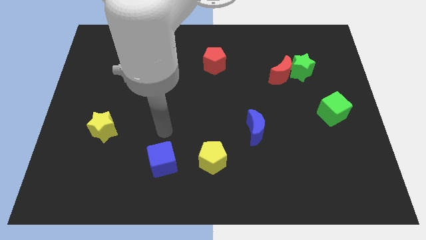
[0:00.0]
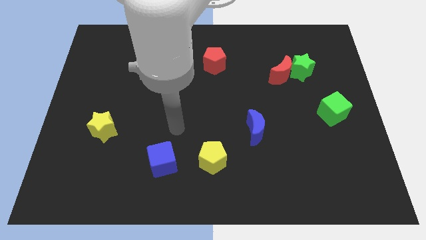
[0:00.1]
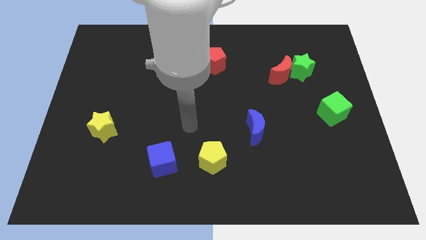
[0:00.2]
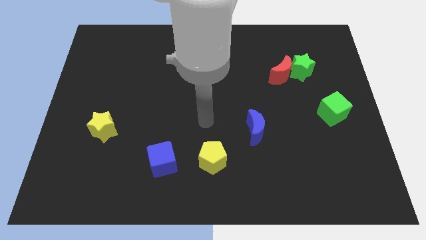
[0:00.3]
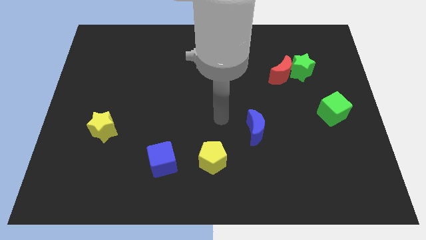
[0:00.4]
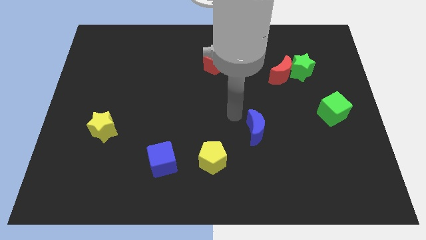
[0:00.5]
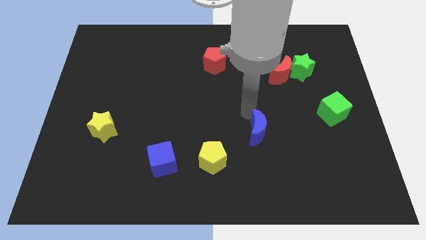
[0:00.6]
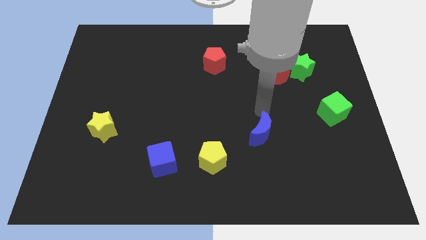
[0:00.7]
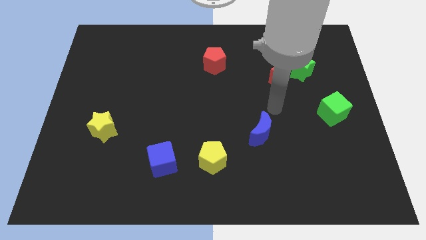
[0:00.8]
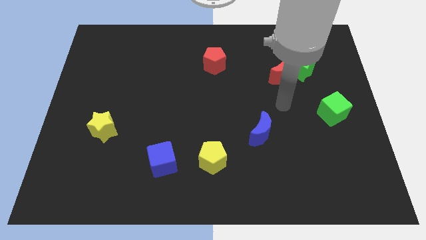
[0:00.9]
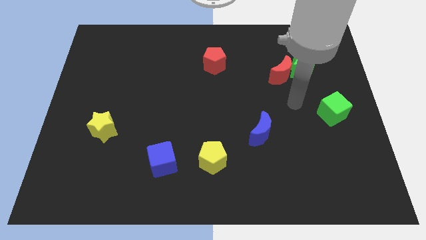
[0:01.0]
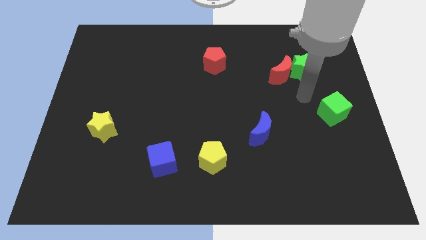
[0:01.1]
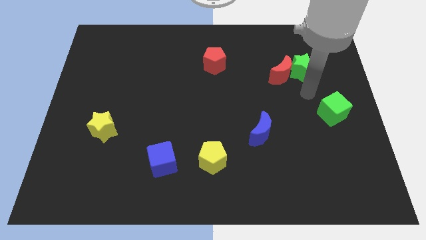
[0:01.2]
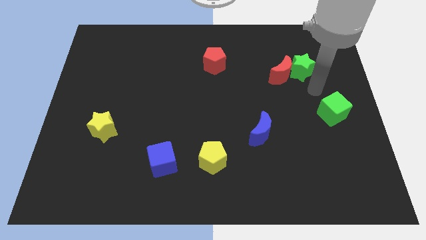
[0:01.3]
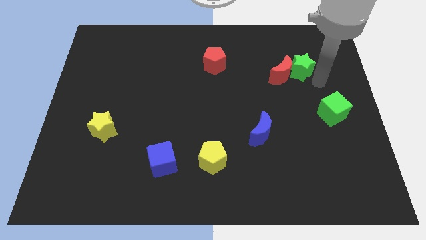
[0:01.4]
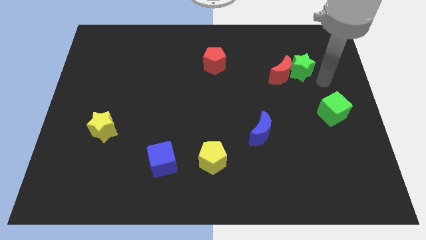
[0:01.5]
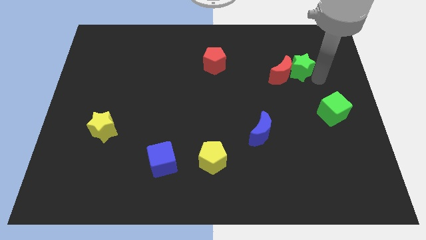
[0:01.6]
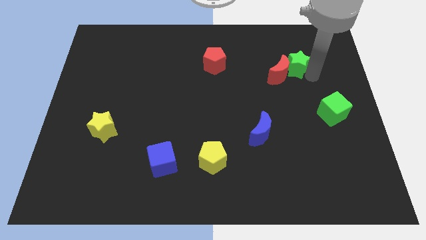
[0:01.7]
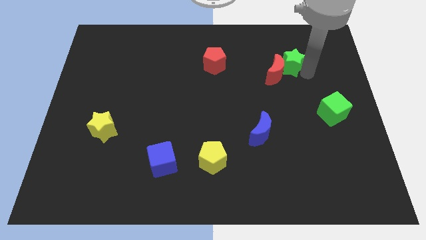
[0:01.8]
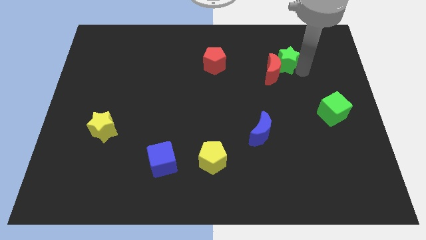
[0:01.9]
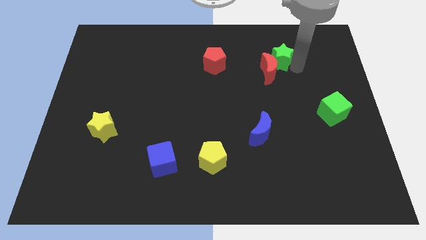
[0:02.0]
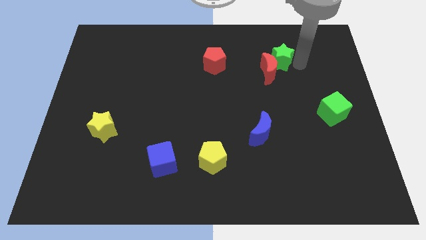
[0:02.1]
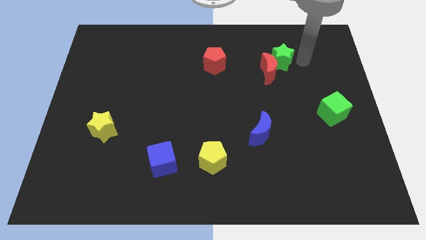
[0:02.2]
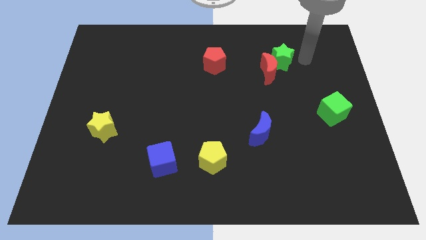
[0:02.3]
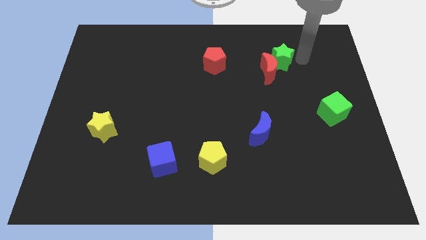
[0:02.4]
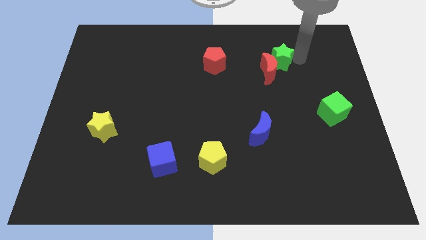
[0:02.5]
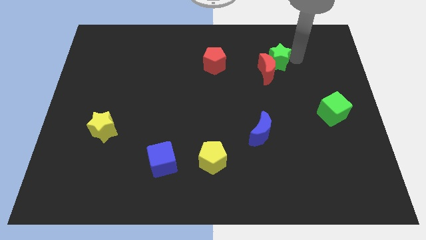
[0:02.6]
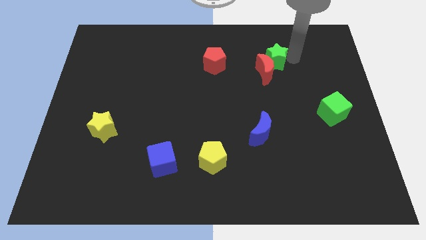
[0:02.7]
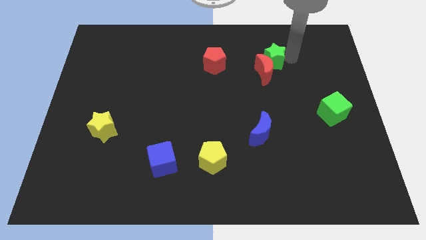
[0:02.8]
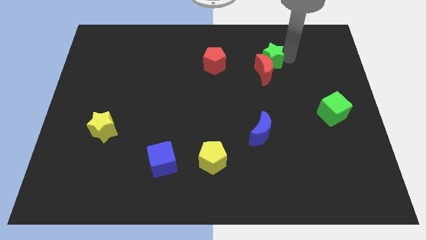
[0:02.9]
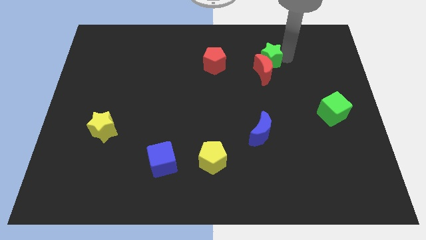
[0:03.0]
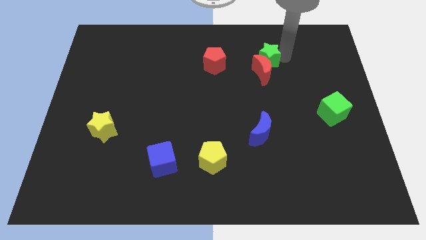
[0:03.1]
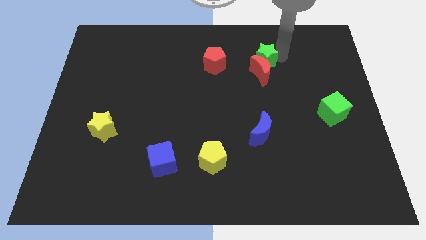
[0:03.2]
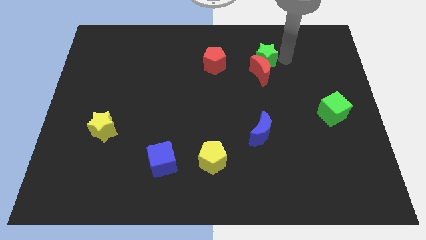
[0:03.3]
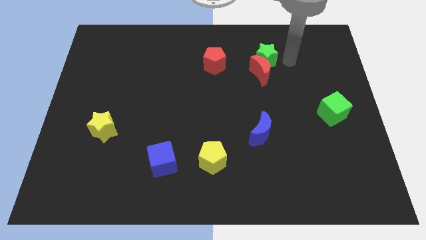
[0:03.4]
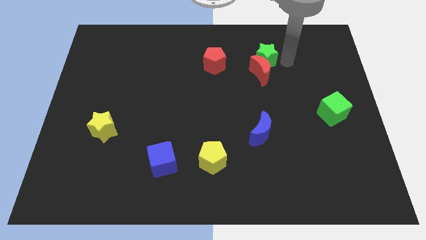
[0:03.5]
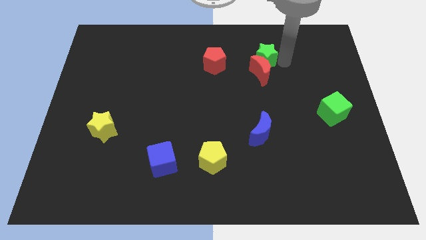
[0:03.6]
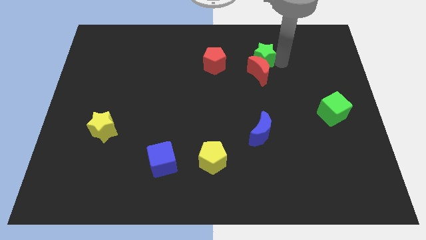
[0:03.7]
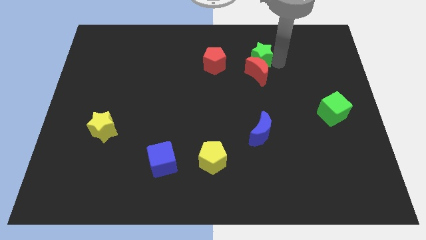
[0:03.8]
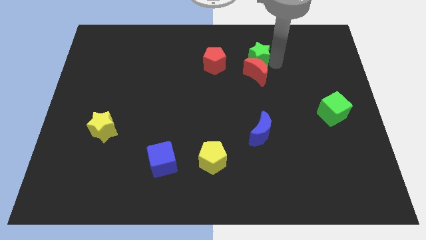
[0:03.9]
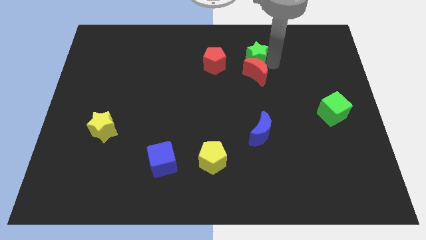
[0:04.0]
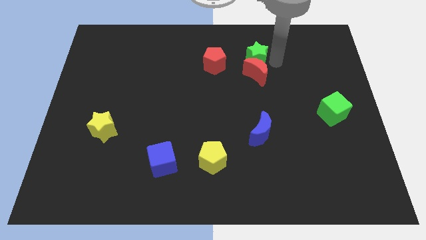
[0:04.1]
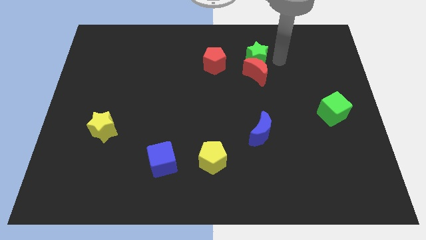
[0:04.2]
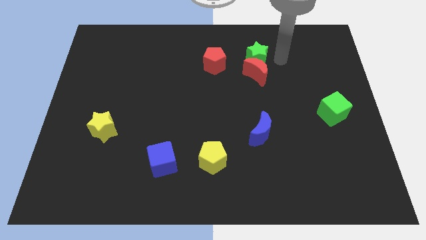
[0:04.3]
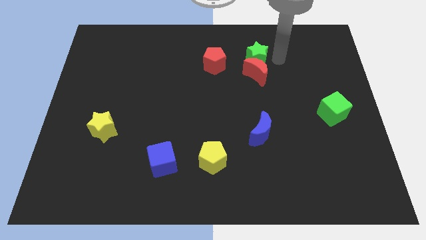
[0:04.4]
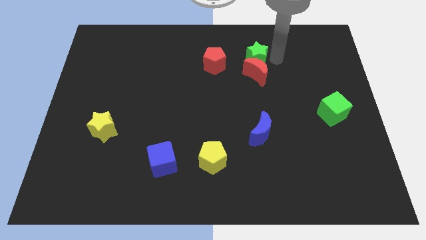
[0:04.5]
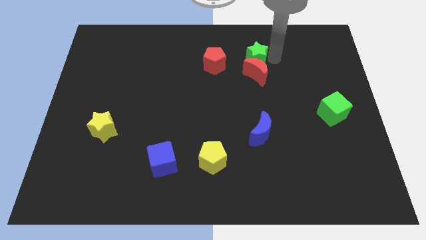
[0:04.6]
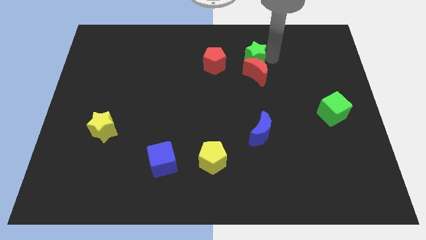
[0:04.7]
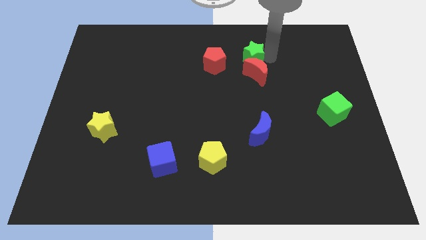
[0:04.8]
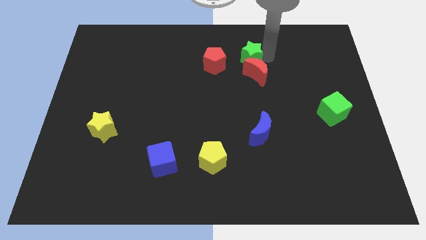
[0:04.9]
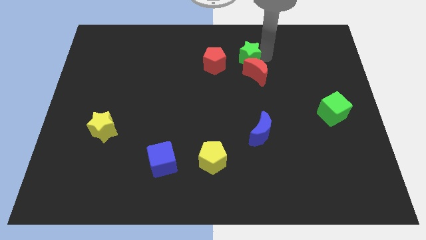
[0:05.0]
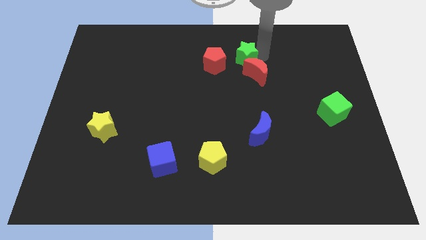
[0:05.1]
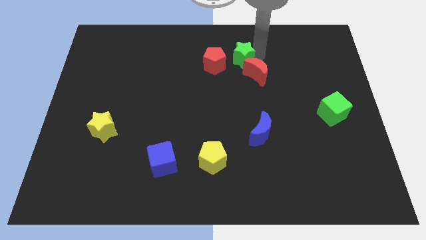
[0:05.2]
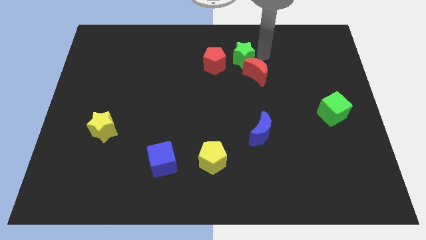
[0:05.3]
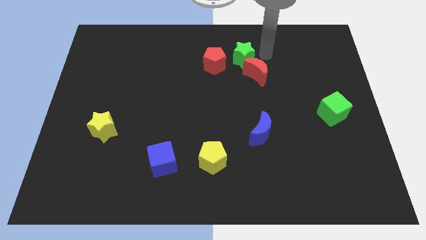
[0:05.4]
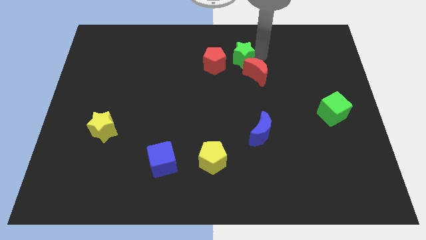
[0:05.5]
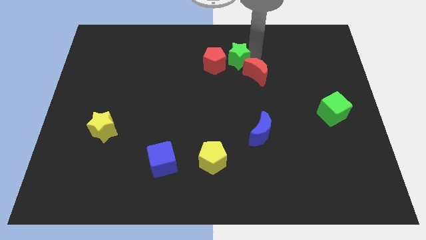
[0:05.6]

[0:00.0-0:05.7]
move the green star close to the red pentagon

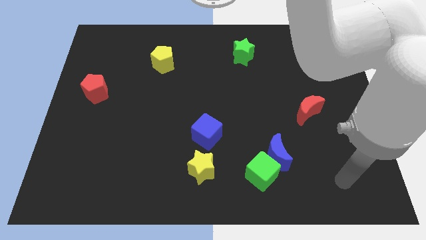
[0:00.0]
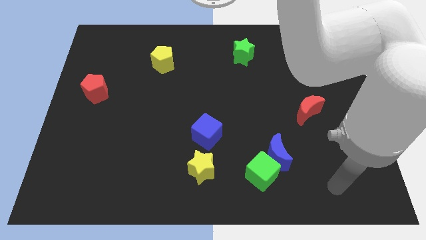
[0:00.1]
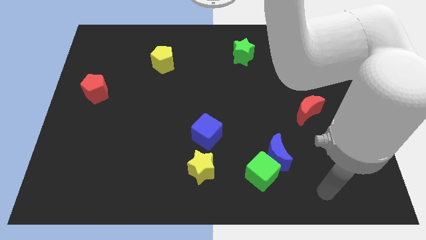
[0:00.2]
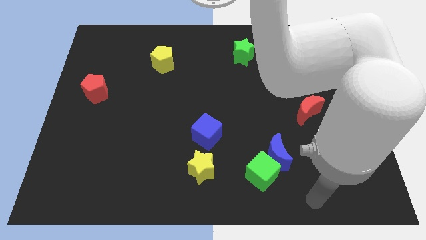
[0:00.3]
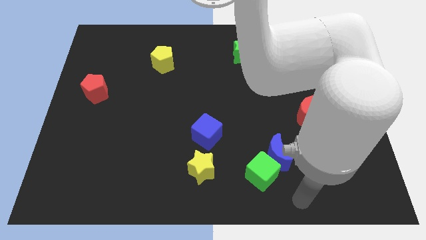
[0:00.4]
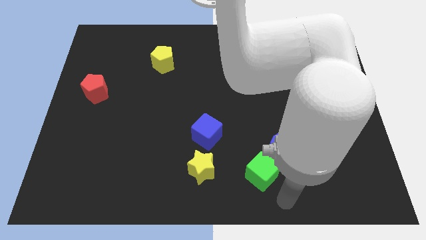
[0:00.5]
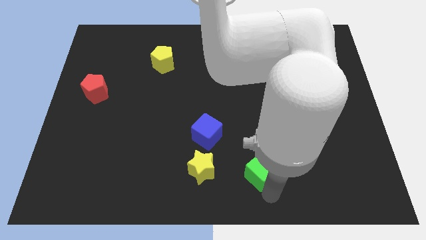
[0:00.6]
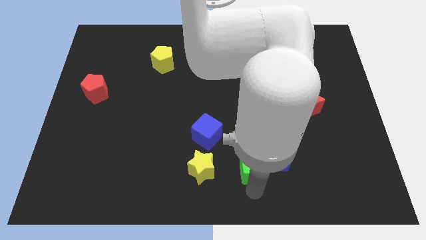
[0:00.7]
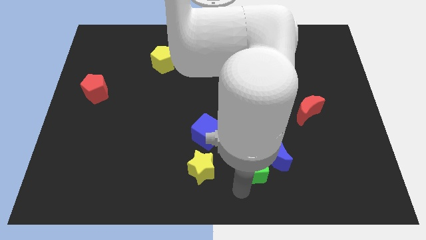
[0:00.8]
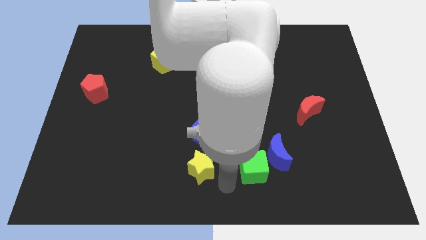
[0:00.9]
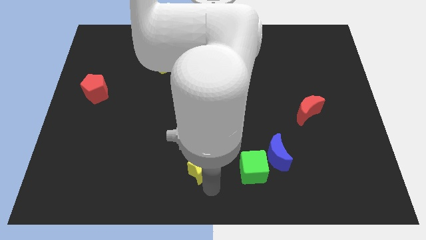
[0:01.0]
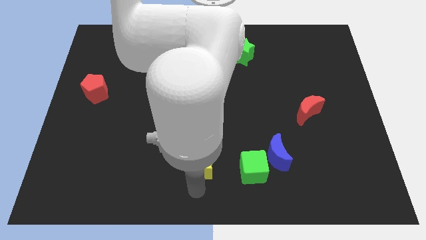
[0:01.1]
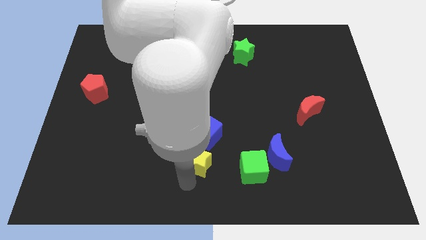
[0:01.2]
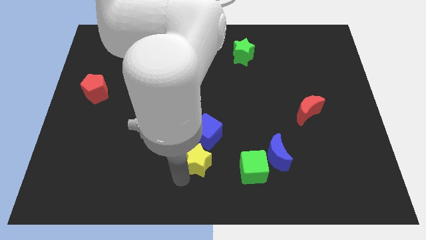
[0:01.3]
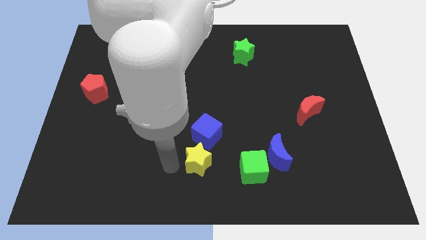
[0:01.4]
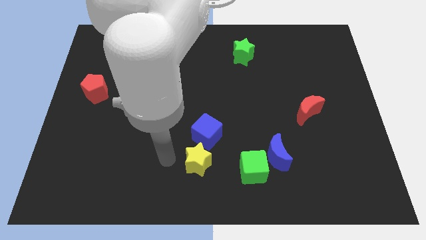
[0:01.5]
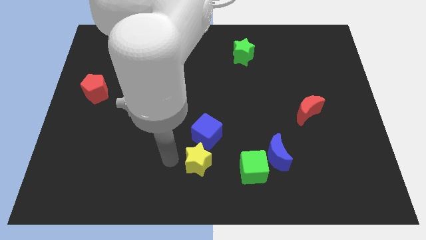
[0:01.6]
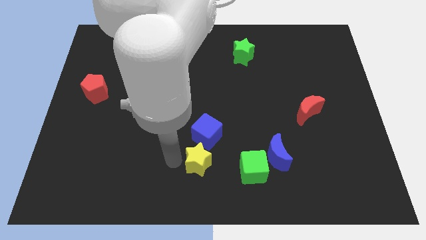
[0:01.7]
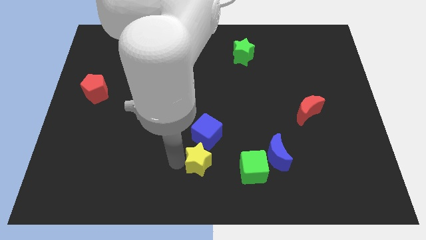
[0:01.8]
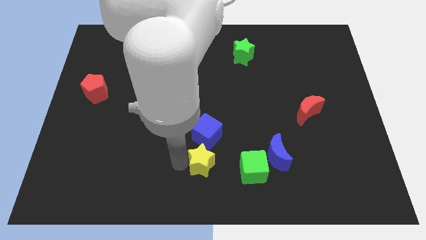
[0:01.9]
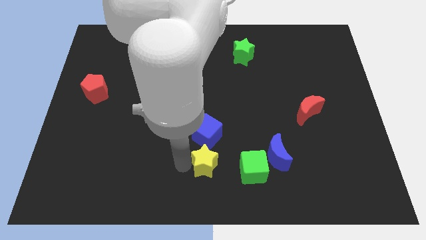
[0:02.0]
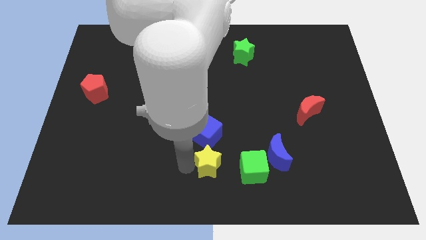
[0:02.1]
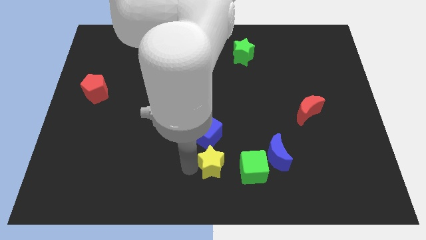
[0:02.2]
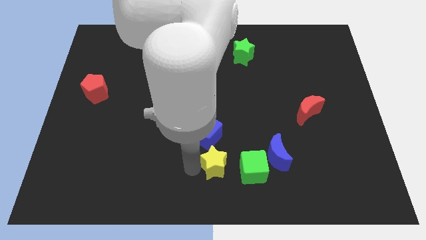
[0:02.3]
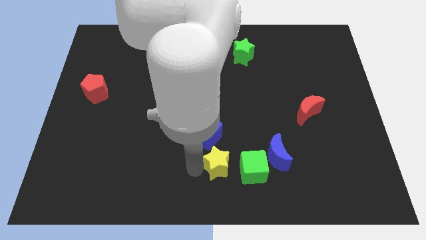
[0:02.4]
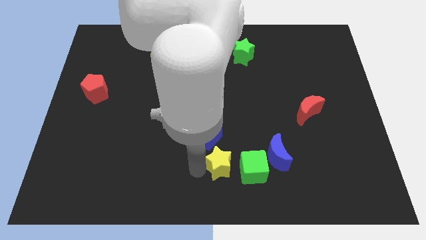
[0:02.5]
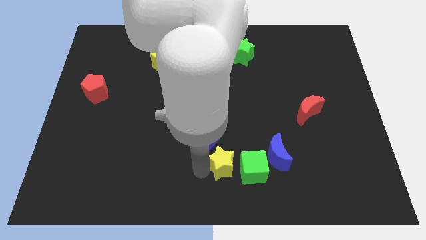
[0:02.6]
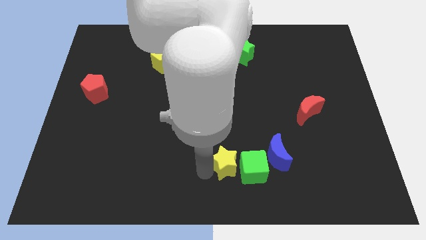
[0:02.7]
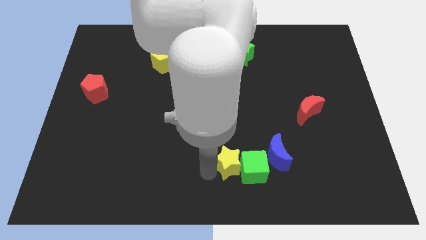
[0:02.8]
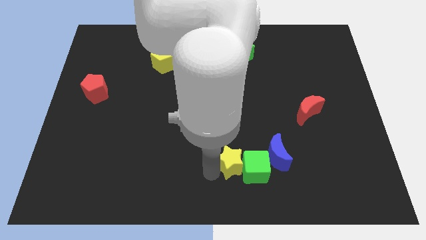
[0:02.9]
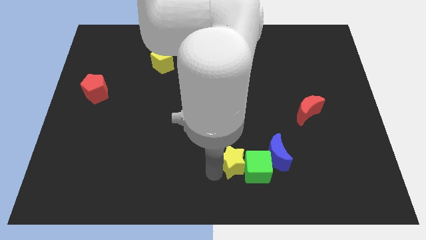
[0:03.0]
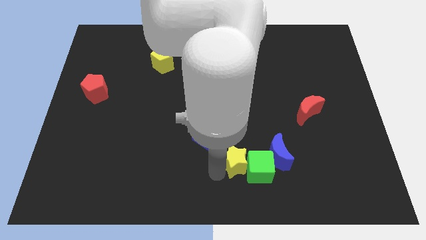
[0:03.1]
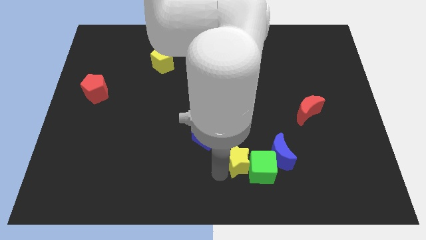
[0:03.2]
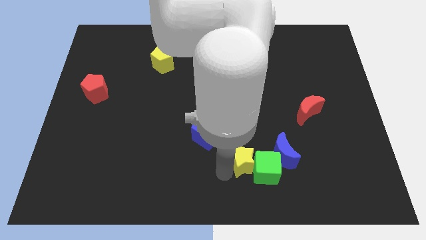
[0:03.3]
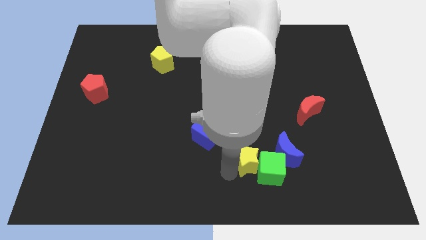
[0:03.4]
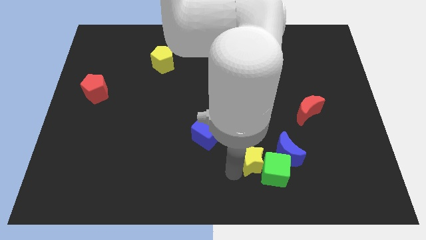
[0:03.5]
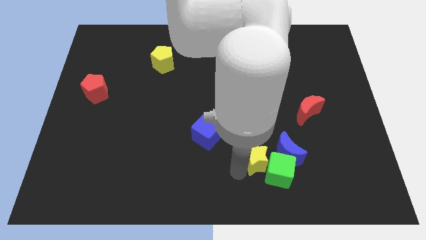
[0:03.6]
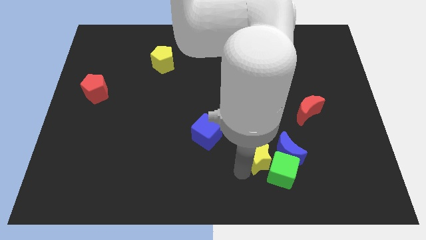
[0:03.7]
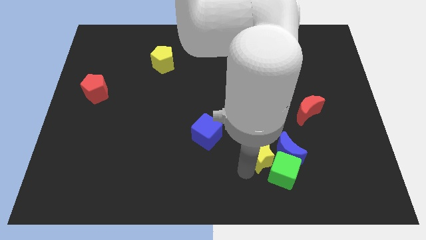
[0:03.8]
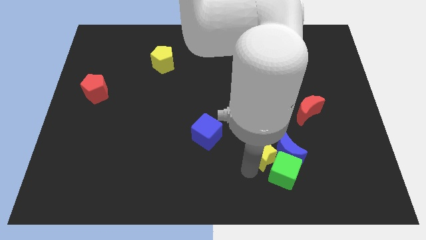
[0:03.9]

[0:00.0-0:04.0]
push the yellow star next to the blue moon
